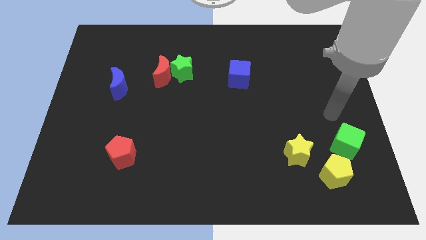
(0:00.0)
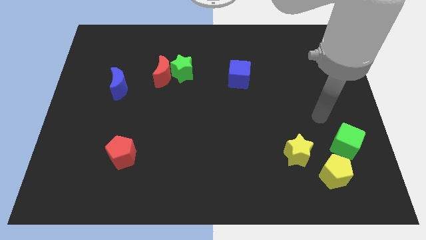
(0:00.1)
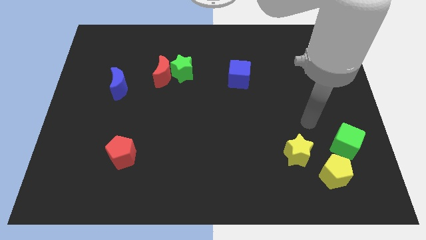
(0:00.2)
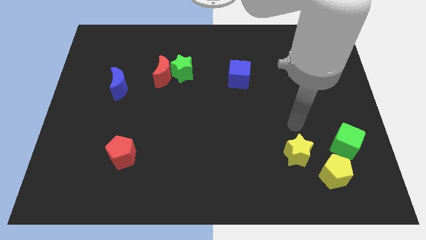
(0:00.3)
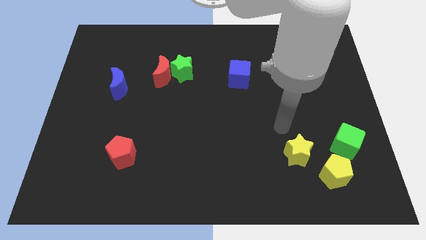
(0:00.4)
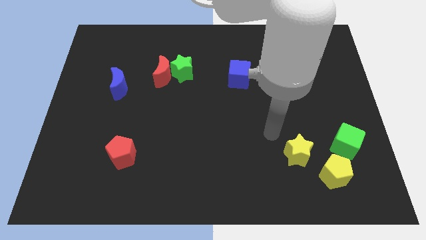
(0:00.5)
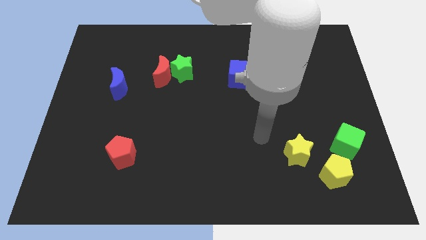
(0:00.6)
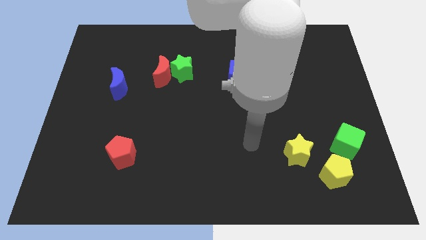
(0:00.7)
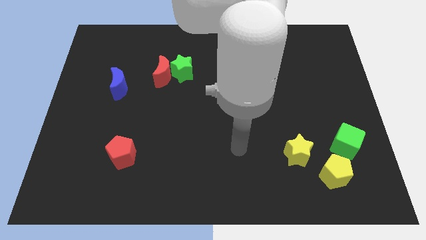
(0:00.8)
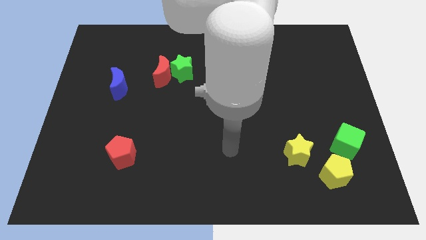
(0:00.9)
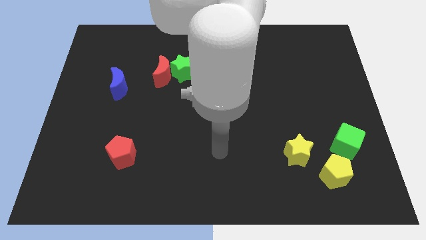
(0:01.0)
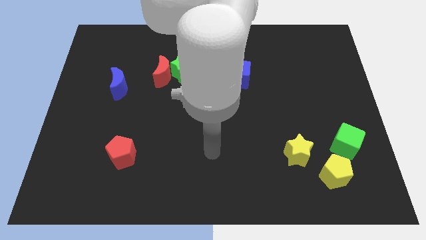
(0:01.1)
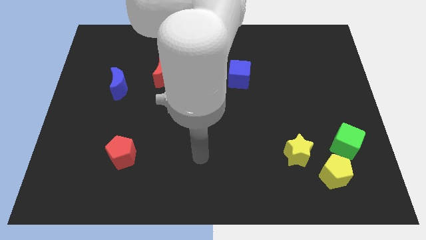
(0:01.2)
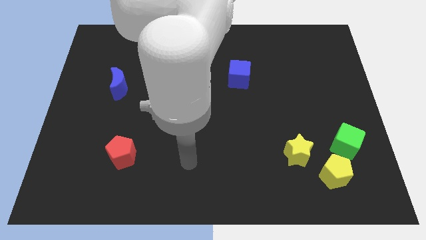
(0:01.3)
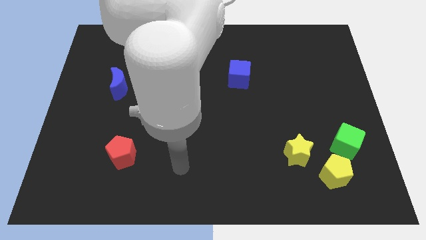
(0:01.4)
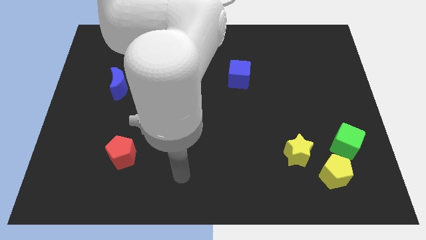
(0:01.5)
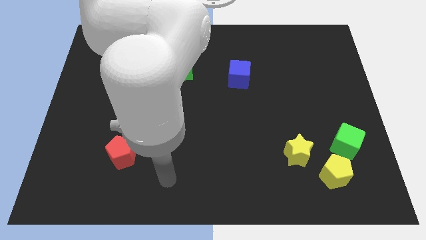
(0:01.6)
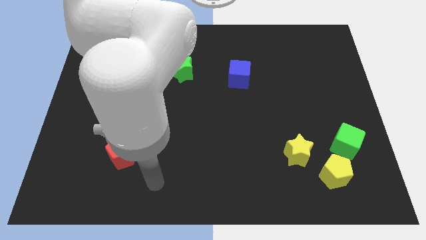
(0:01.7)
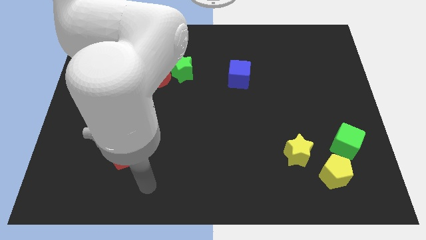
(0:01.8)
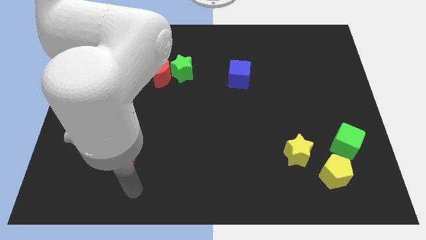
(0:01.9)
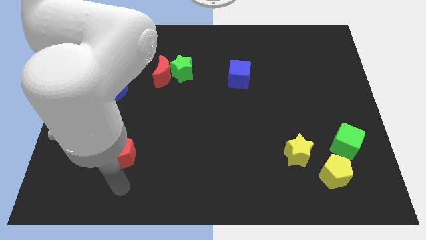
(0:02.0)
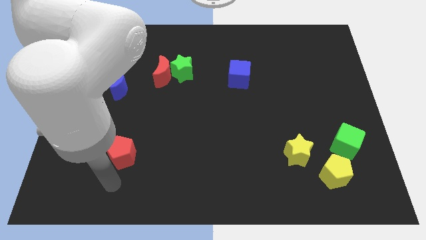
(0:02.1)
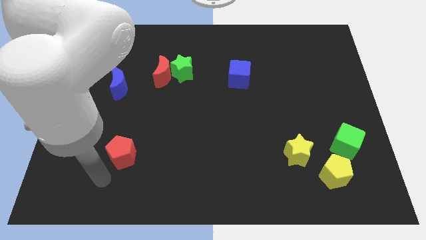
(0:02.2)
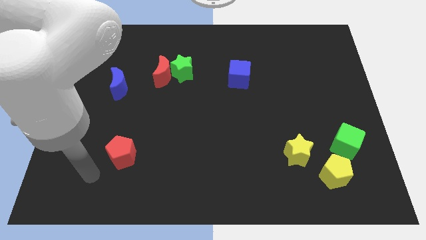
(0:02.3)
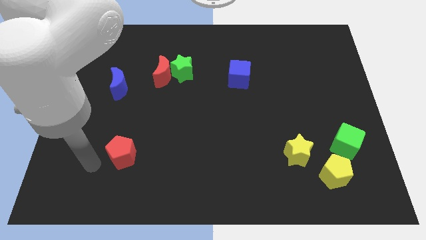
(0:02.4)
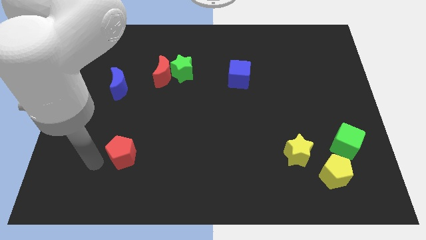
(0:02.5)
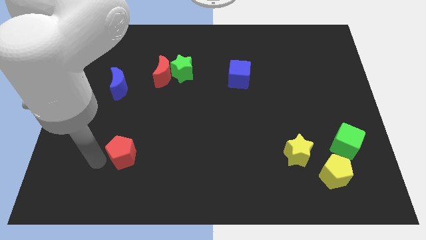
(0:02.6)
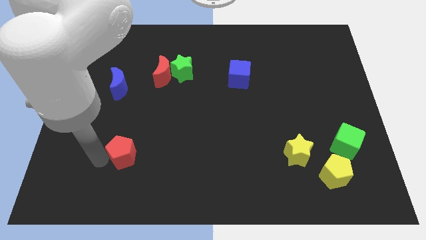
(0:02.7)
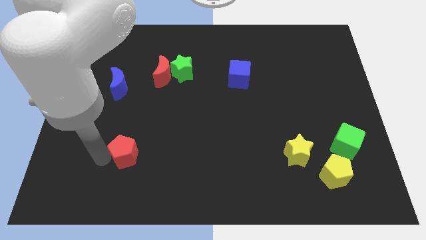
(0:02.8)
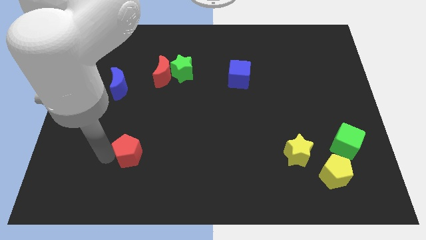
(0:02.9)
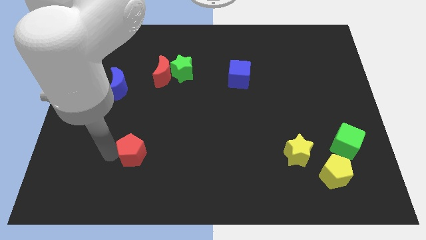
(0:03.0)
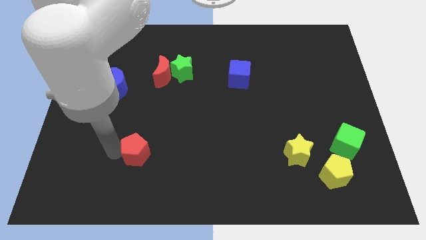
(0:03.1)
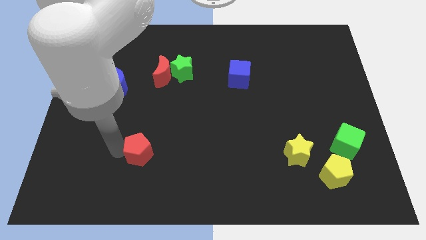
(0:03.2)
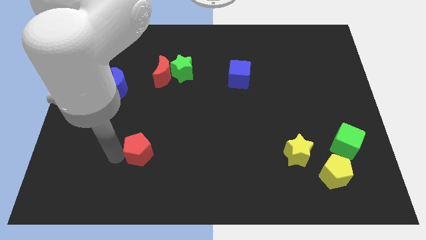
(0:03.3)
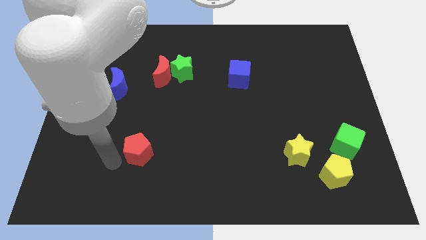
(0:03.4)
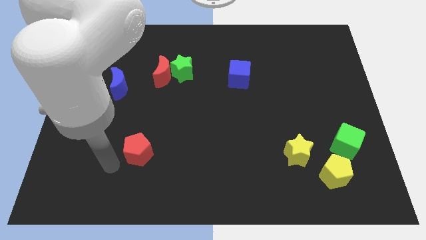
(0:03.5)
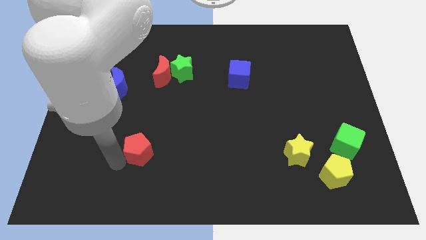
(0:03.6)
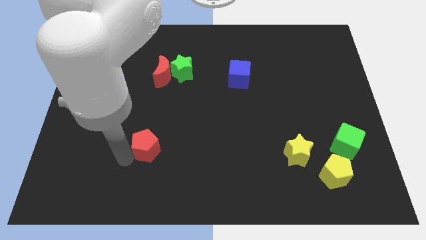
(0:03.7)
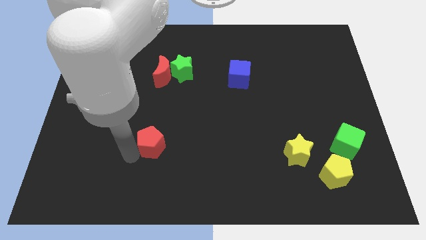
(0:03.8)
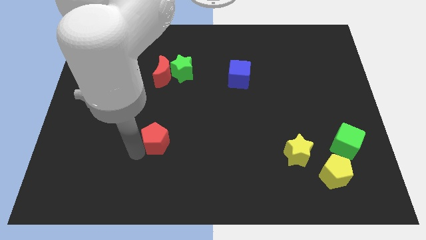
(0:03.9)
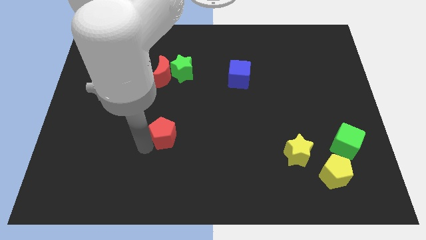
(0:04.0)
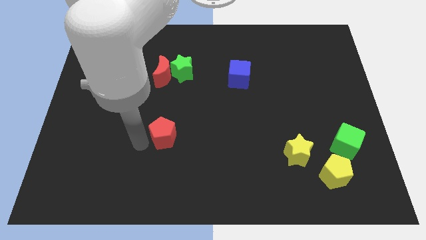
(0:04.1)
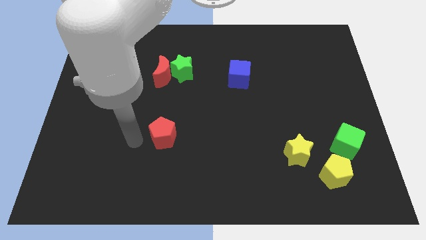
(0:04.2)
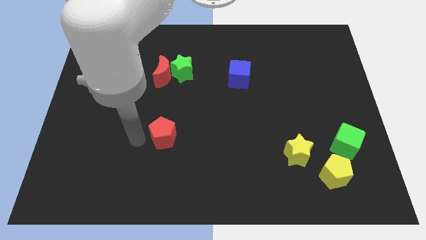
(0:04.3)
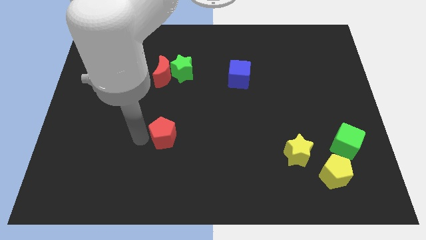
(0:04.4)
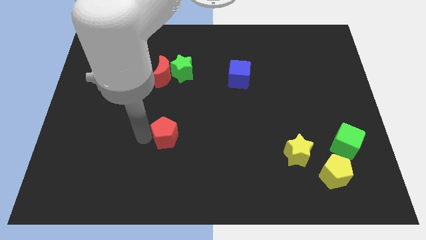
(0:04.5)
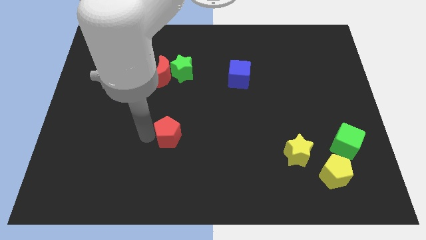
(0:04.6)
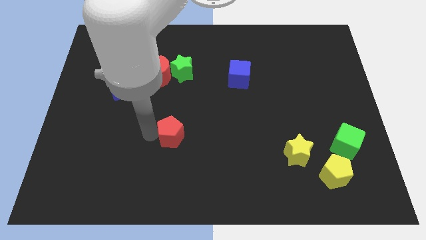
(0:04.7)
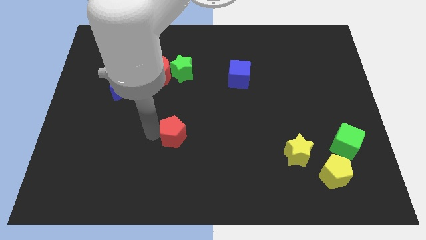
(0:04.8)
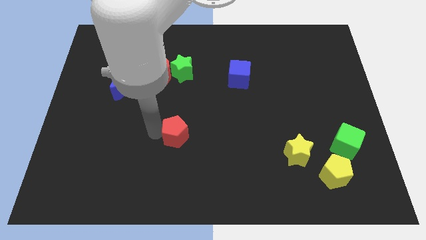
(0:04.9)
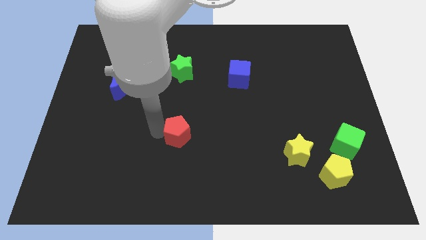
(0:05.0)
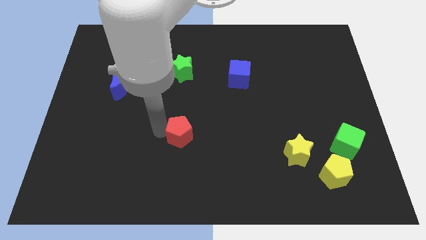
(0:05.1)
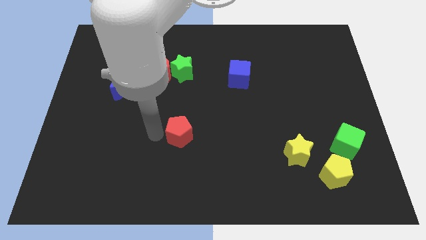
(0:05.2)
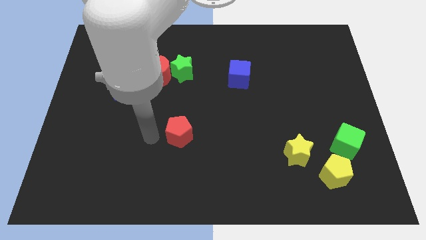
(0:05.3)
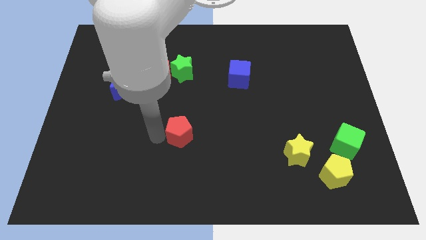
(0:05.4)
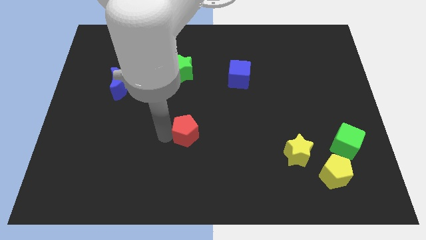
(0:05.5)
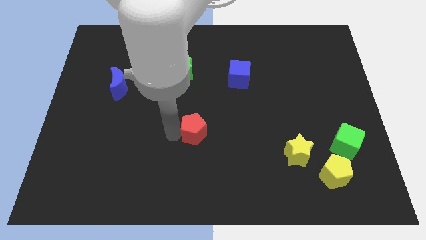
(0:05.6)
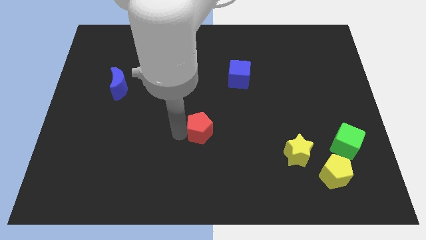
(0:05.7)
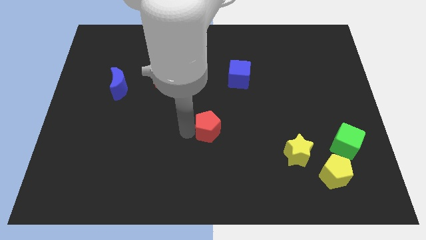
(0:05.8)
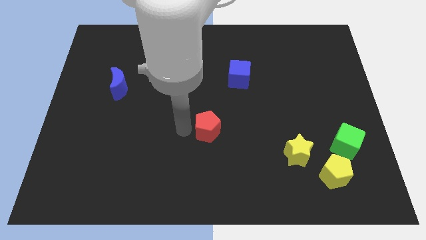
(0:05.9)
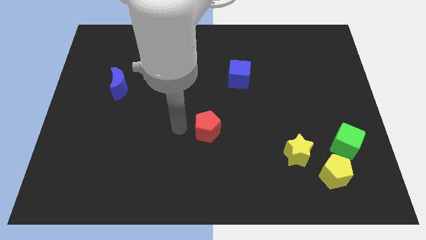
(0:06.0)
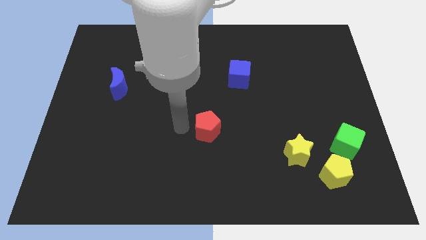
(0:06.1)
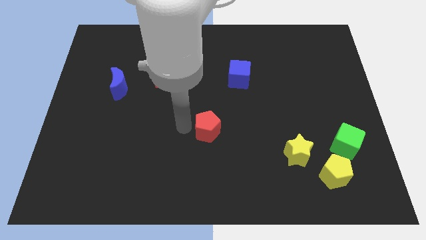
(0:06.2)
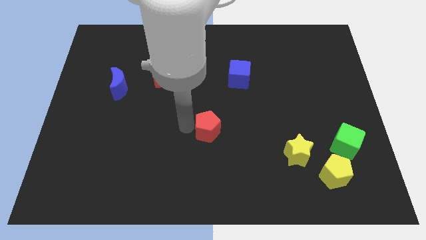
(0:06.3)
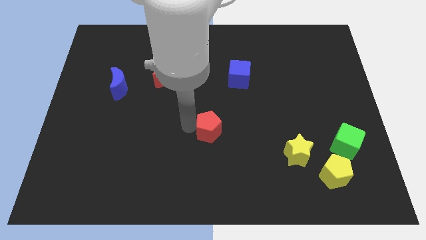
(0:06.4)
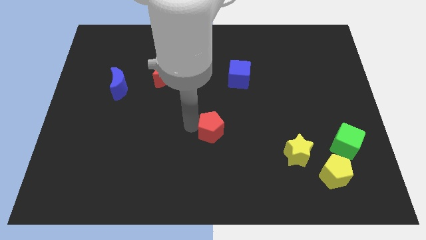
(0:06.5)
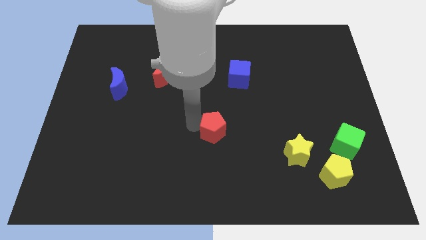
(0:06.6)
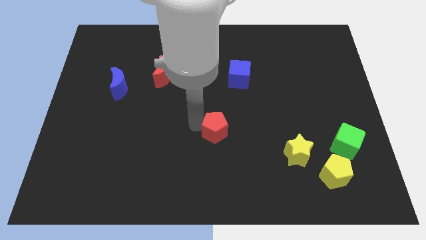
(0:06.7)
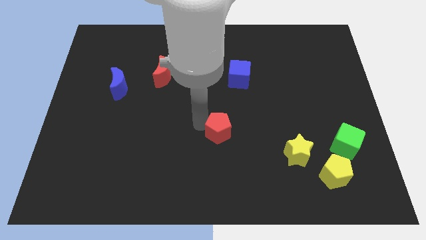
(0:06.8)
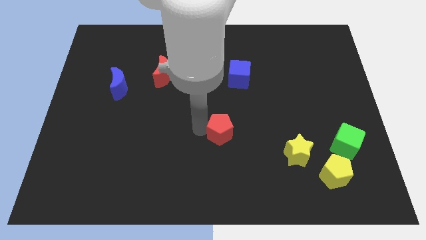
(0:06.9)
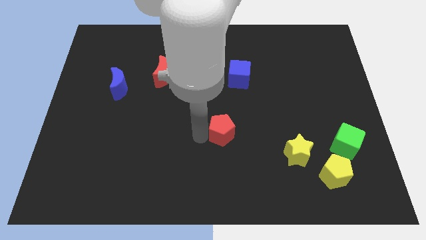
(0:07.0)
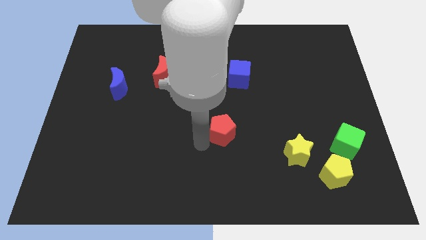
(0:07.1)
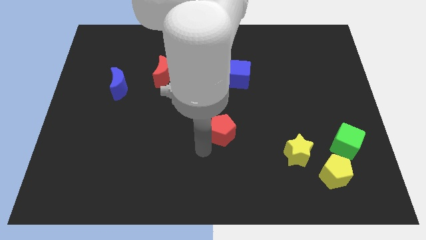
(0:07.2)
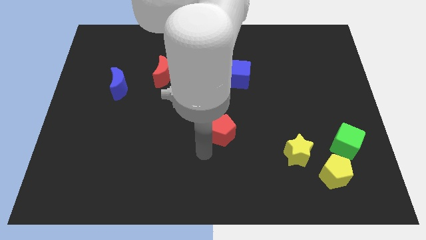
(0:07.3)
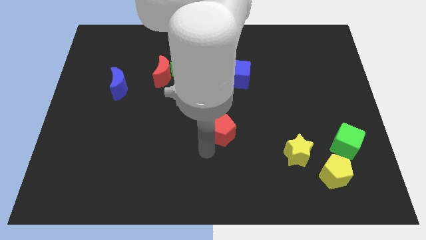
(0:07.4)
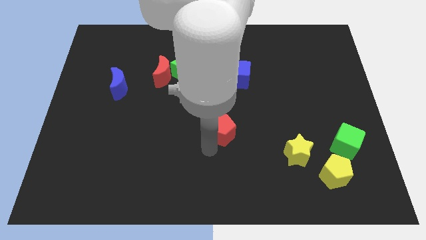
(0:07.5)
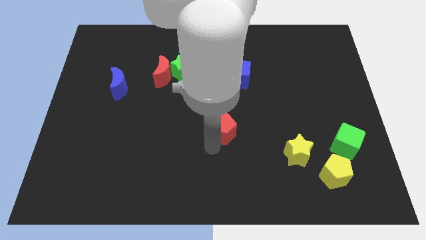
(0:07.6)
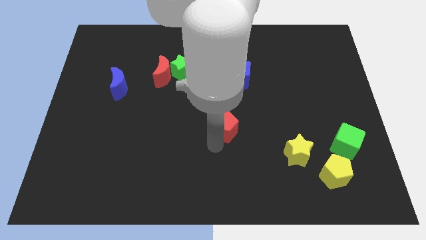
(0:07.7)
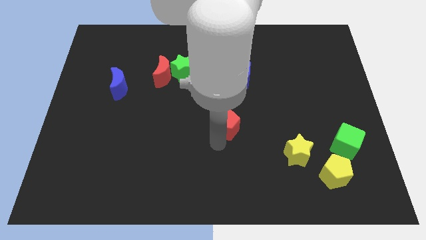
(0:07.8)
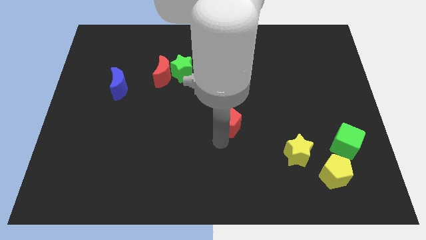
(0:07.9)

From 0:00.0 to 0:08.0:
move the red pentagon to the bottom of the blue cube

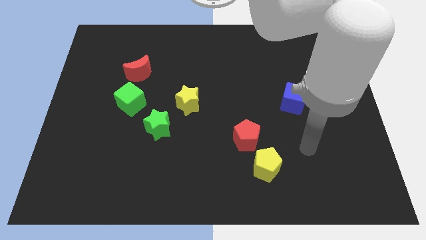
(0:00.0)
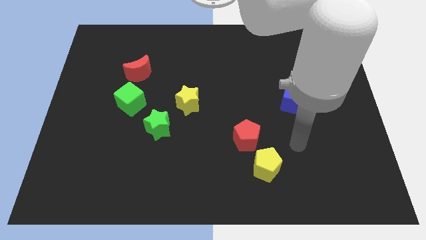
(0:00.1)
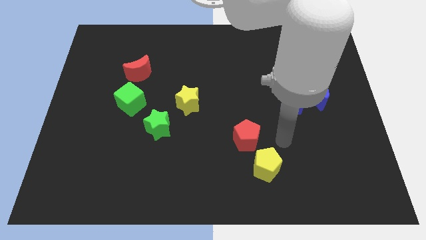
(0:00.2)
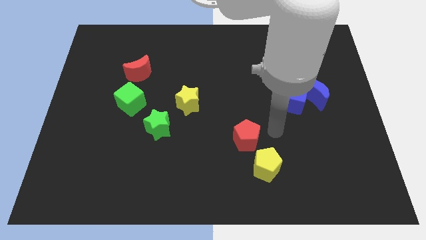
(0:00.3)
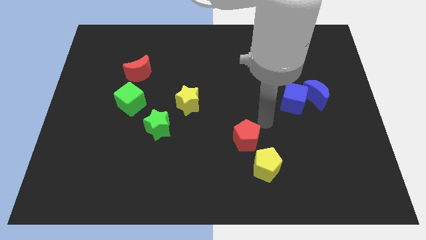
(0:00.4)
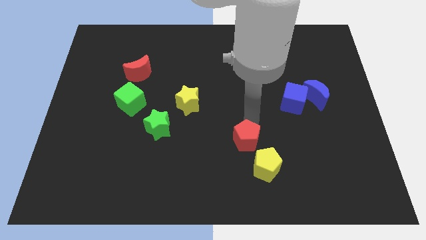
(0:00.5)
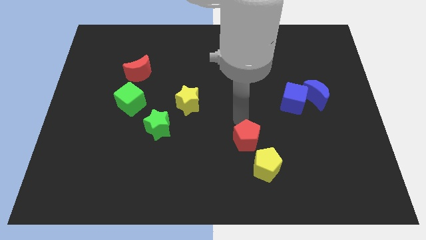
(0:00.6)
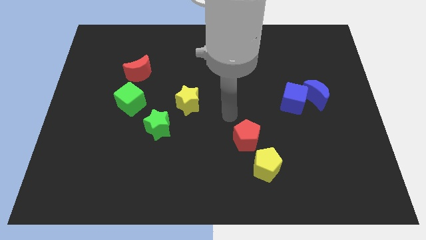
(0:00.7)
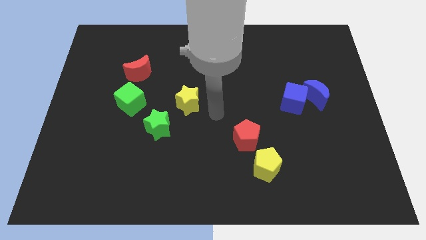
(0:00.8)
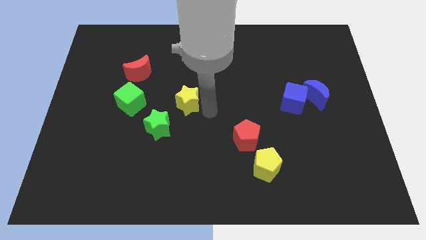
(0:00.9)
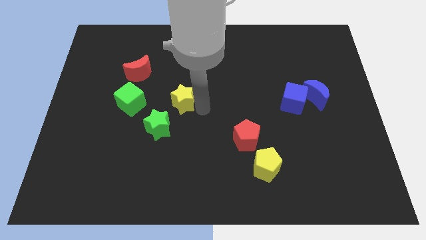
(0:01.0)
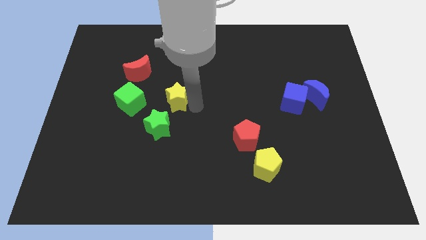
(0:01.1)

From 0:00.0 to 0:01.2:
move the yellow star to the top side of the green star
